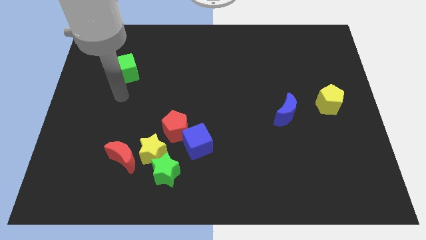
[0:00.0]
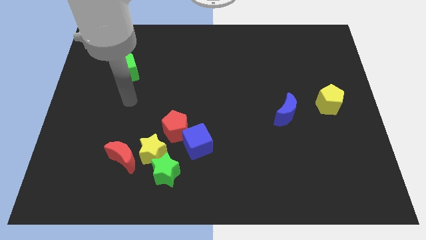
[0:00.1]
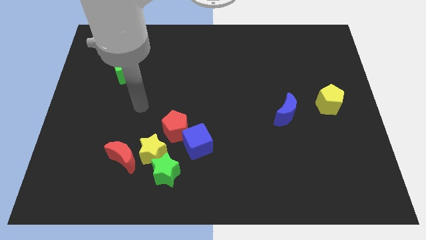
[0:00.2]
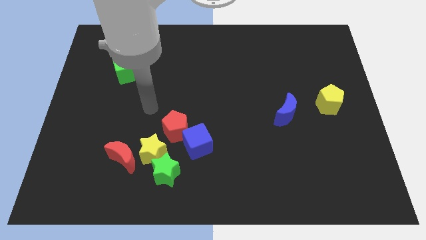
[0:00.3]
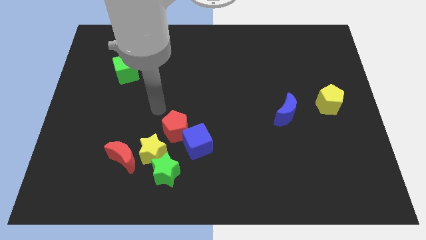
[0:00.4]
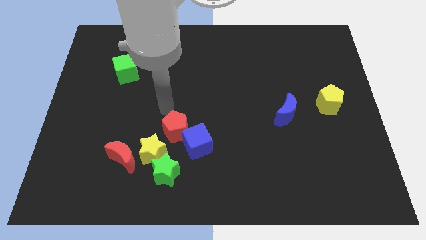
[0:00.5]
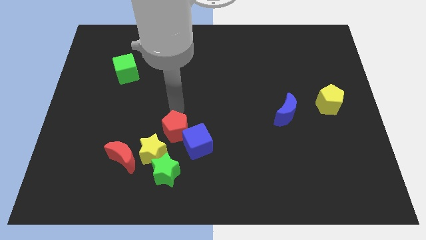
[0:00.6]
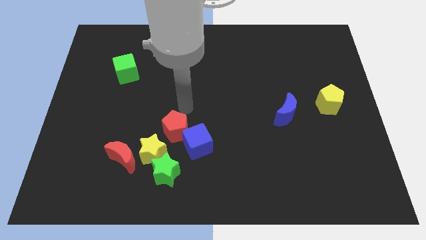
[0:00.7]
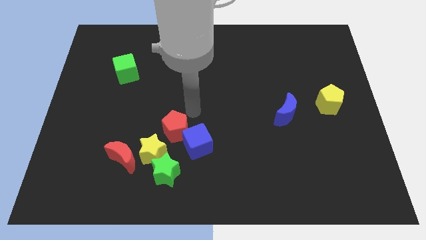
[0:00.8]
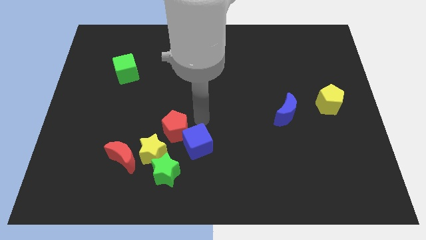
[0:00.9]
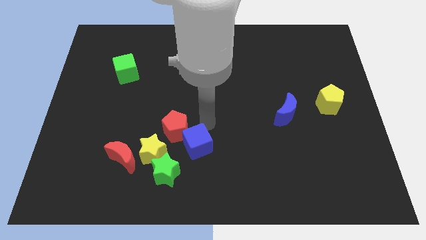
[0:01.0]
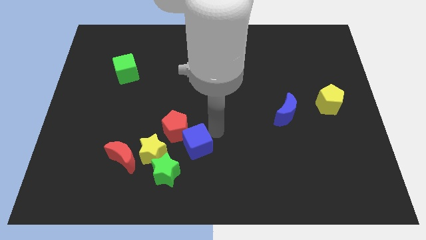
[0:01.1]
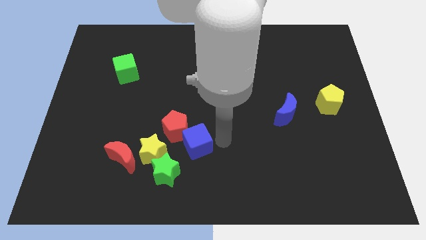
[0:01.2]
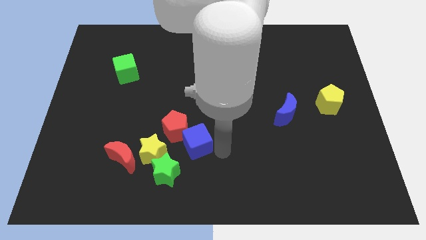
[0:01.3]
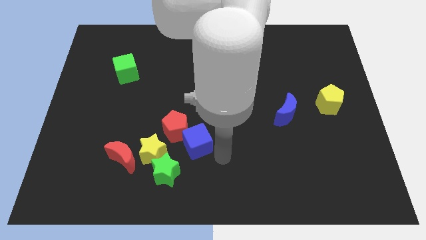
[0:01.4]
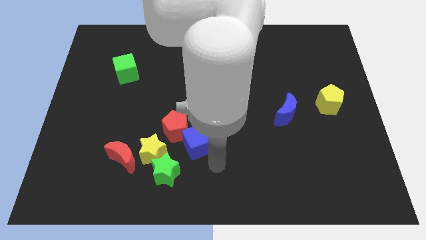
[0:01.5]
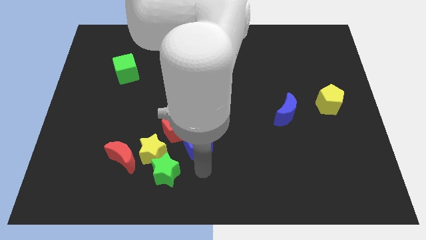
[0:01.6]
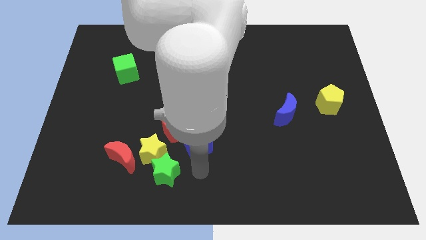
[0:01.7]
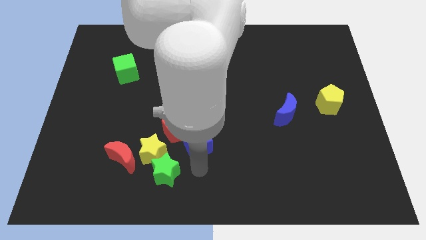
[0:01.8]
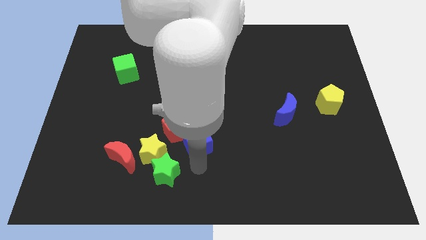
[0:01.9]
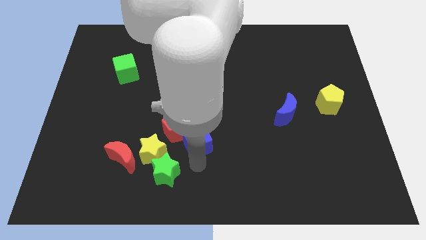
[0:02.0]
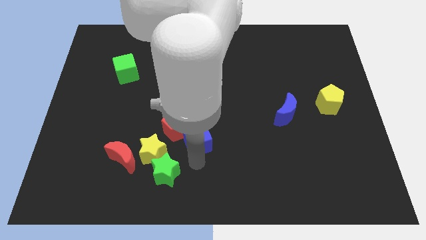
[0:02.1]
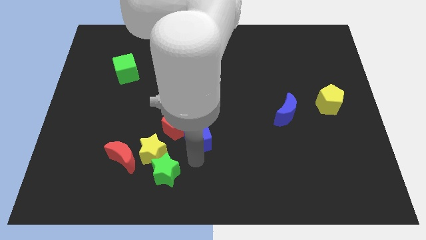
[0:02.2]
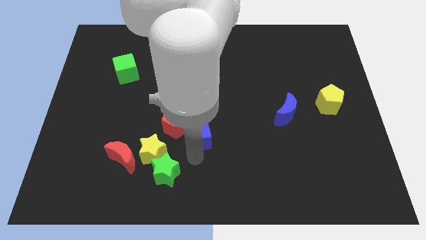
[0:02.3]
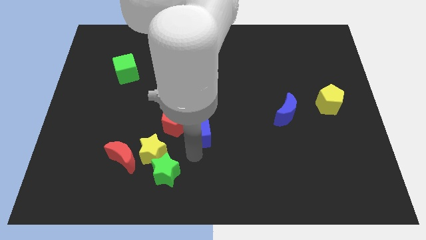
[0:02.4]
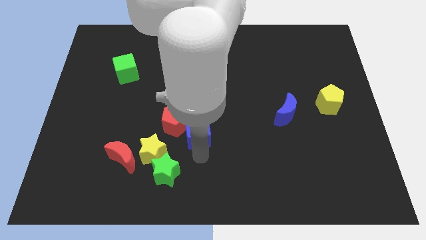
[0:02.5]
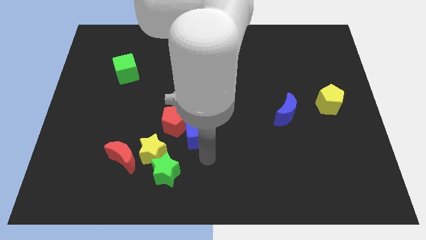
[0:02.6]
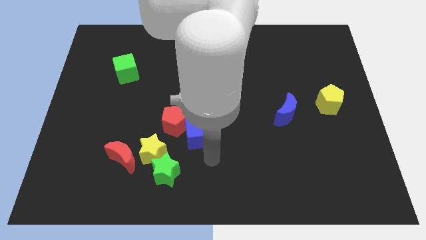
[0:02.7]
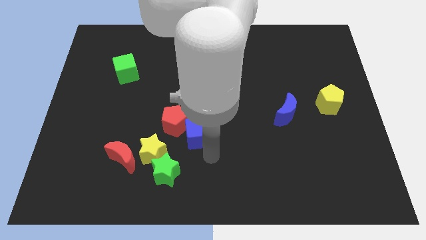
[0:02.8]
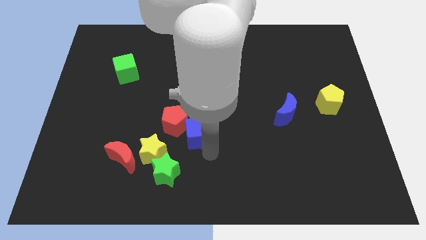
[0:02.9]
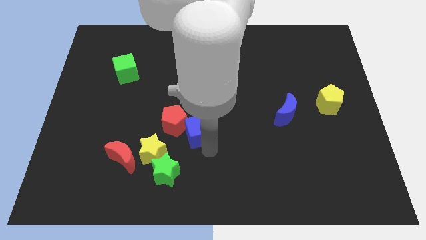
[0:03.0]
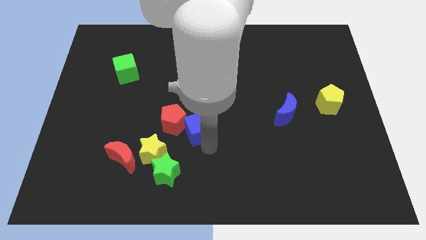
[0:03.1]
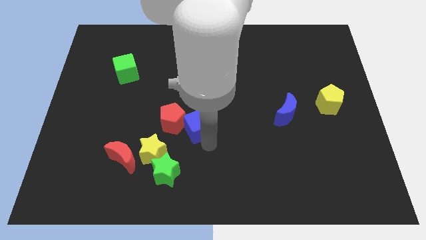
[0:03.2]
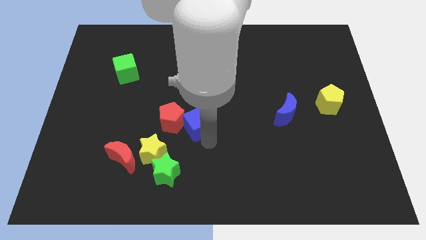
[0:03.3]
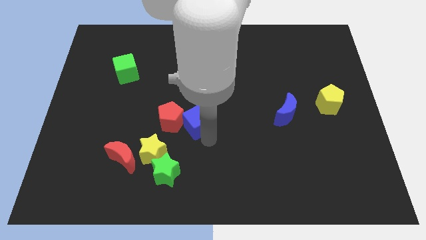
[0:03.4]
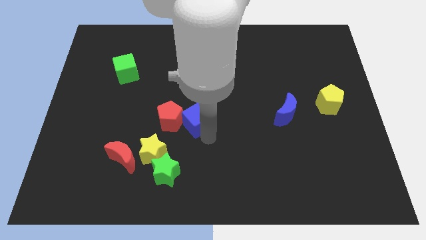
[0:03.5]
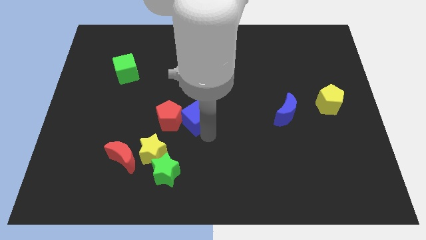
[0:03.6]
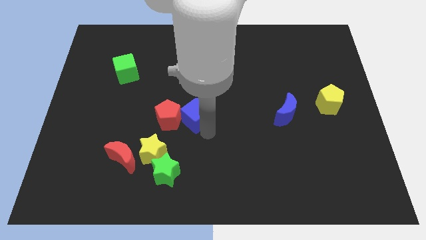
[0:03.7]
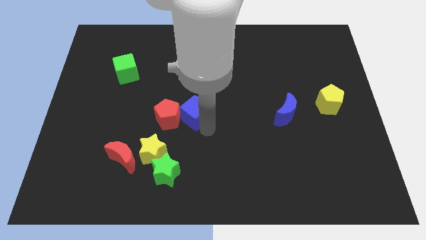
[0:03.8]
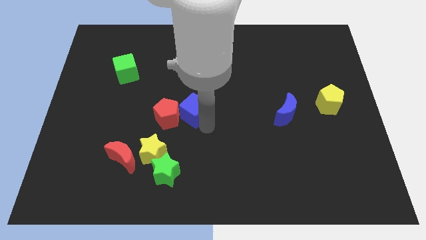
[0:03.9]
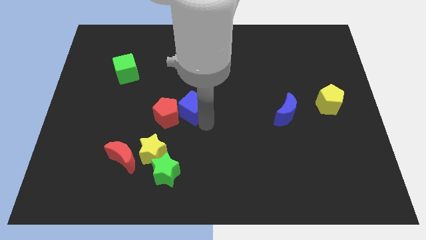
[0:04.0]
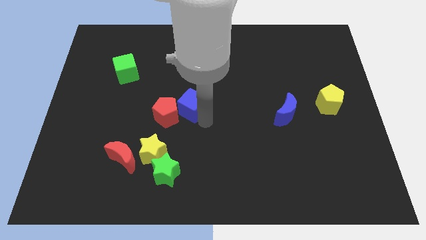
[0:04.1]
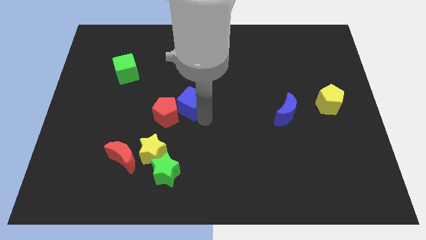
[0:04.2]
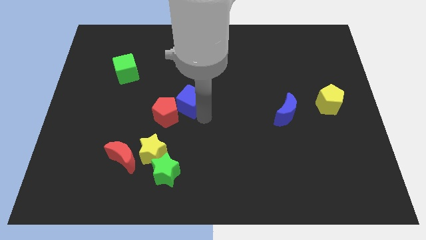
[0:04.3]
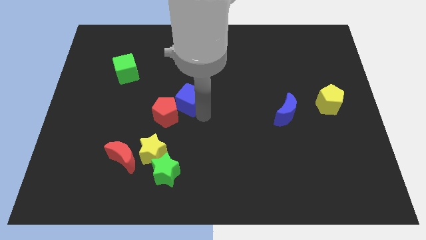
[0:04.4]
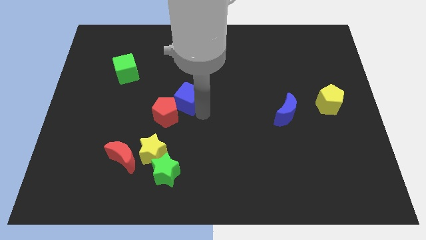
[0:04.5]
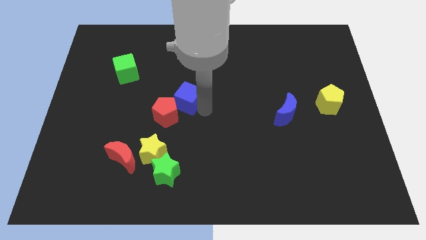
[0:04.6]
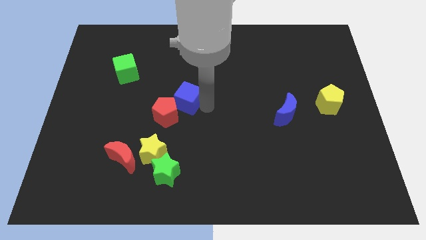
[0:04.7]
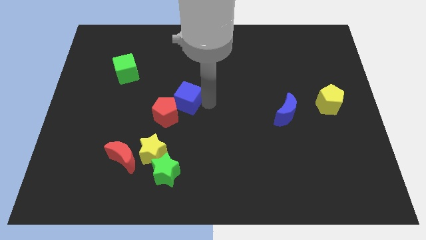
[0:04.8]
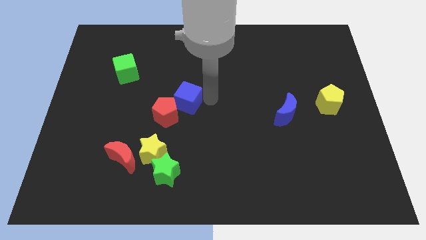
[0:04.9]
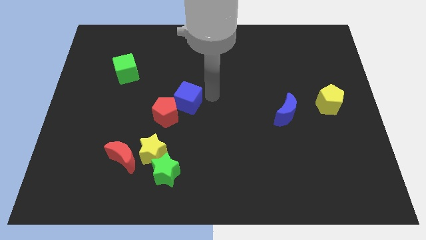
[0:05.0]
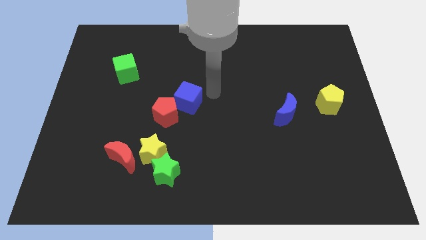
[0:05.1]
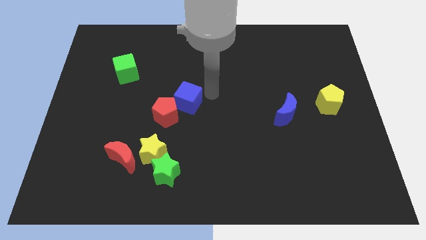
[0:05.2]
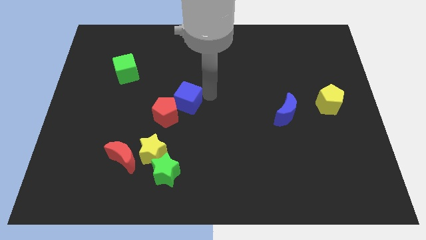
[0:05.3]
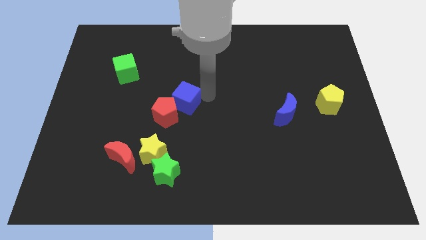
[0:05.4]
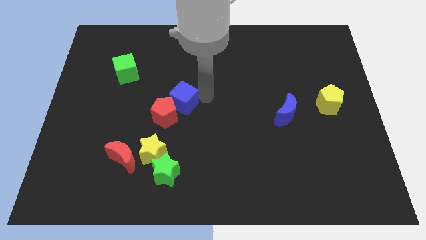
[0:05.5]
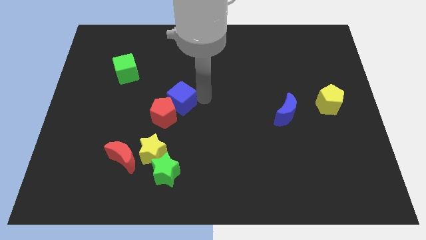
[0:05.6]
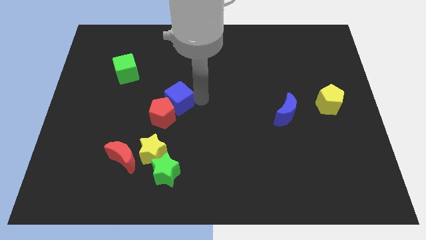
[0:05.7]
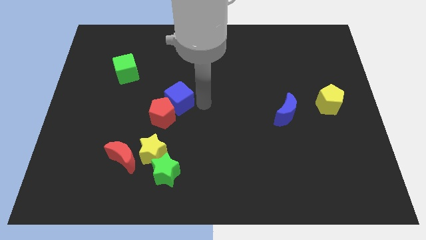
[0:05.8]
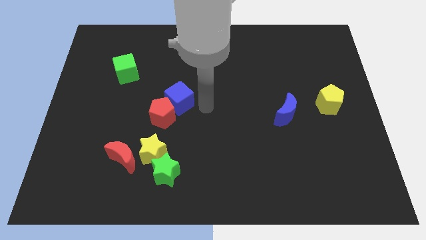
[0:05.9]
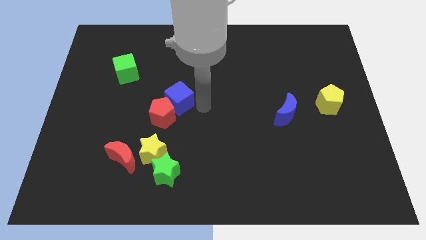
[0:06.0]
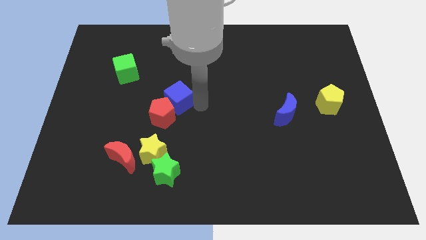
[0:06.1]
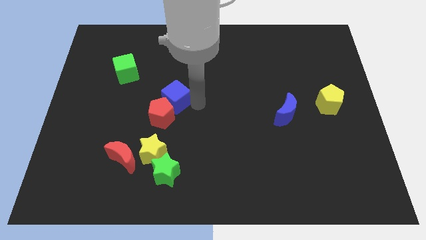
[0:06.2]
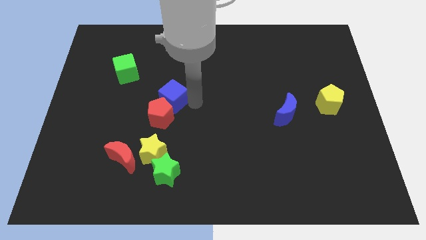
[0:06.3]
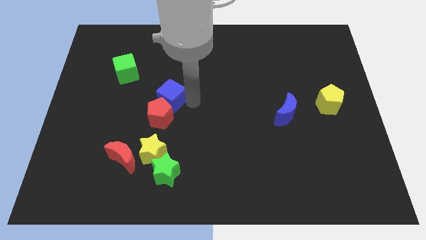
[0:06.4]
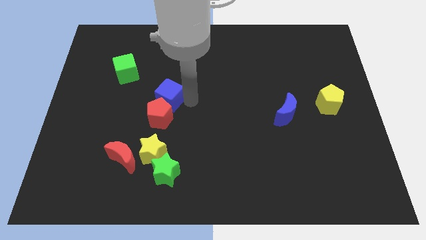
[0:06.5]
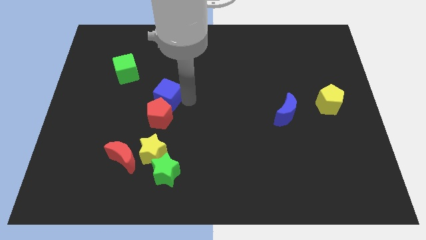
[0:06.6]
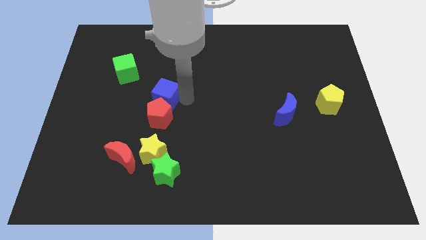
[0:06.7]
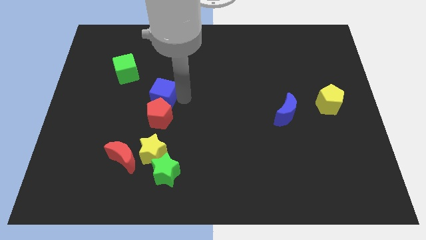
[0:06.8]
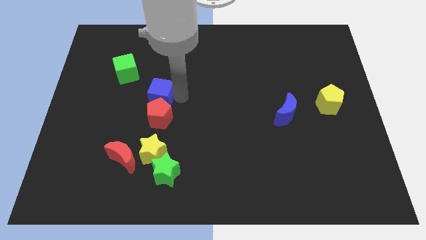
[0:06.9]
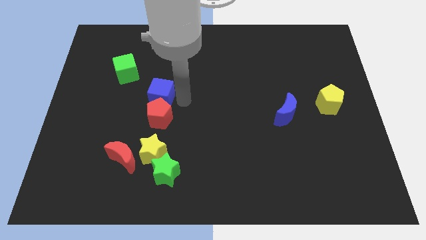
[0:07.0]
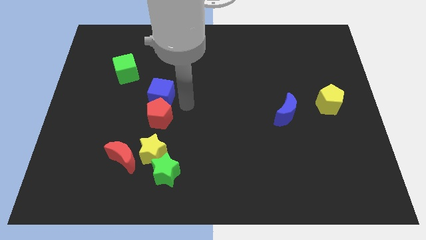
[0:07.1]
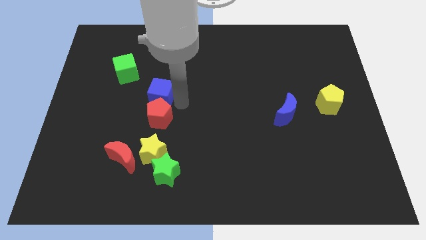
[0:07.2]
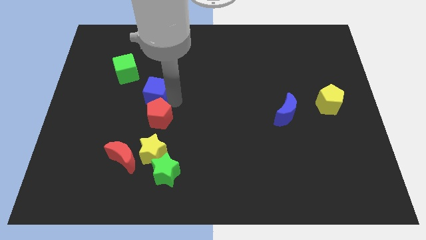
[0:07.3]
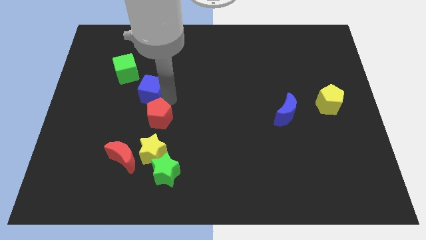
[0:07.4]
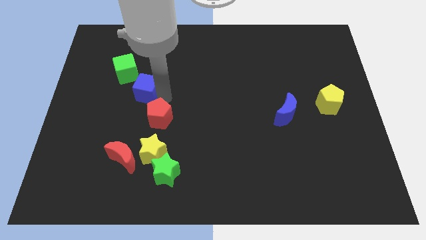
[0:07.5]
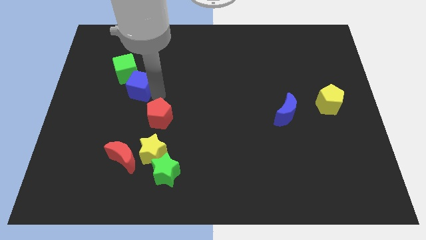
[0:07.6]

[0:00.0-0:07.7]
move the blue cube up and left diagonally

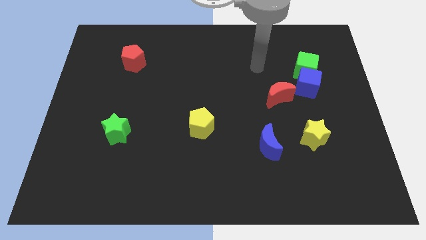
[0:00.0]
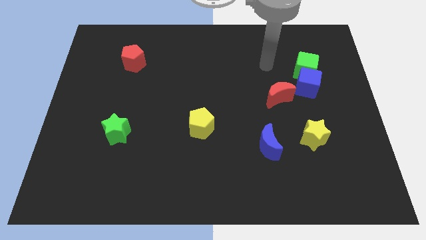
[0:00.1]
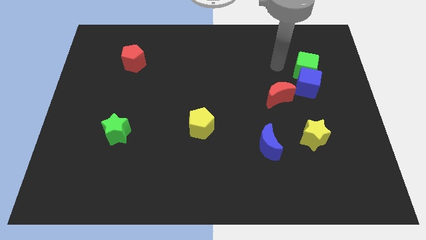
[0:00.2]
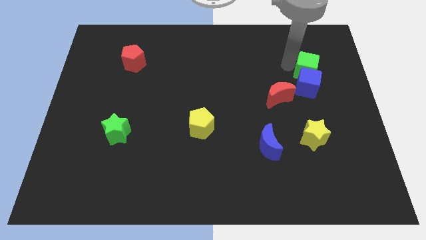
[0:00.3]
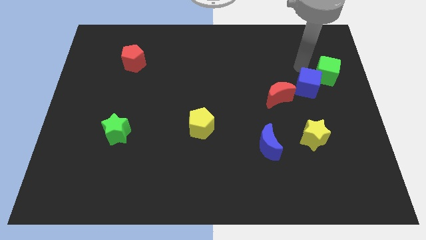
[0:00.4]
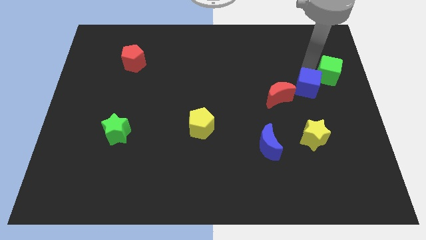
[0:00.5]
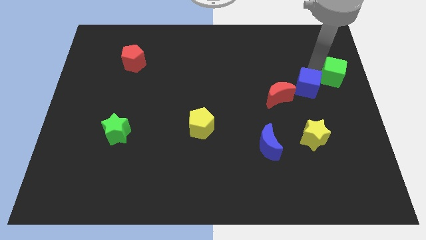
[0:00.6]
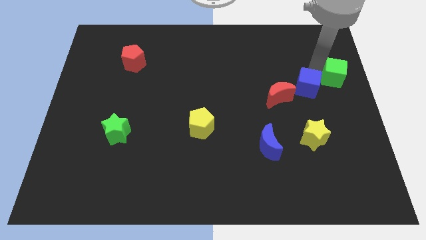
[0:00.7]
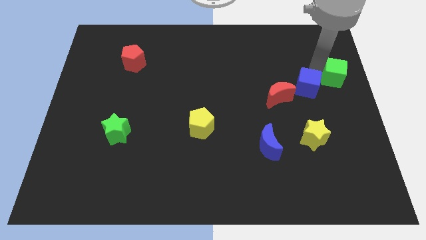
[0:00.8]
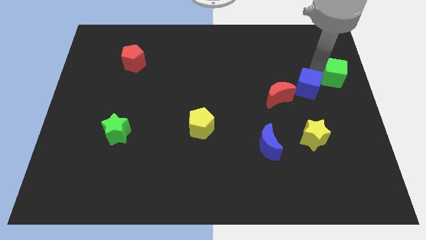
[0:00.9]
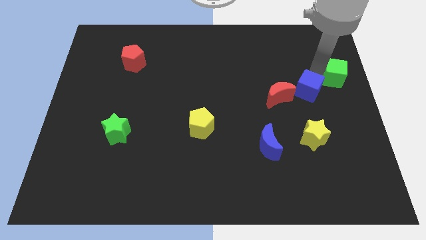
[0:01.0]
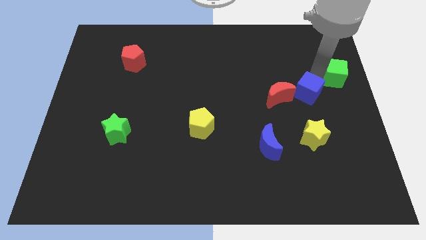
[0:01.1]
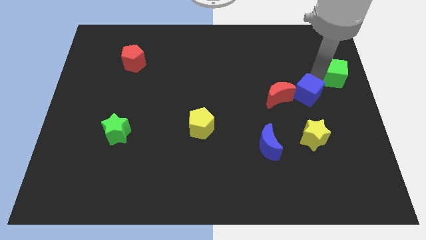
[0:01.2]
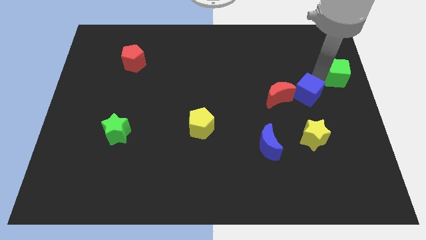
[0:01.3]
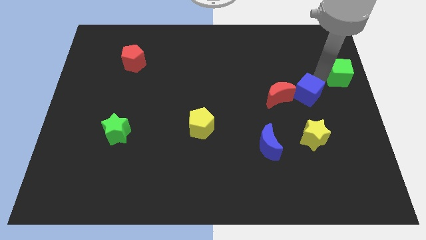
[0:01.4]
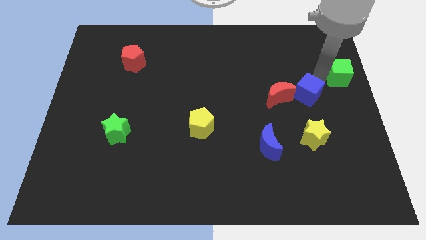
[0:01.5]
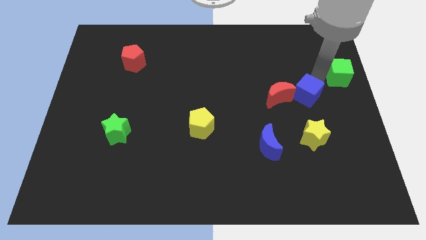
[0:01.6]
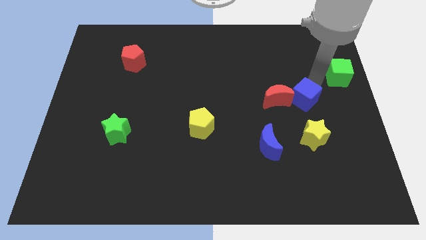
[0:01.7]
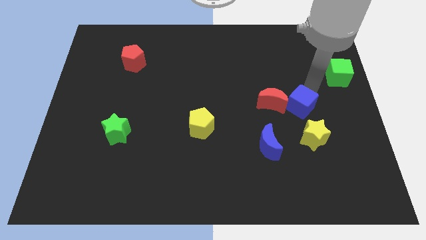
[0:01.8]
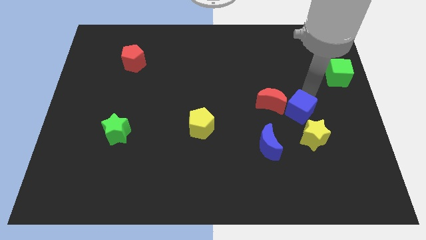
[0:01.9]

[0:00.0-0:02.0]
slightly push the blue cube diagonally down and left
